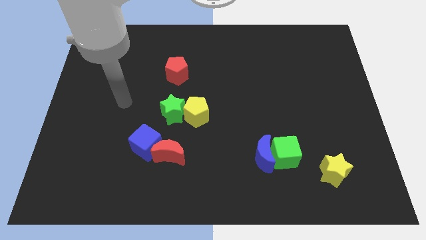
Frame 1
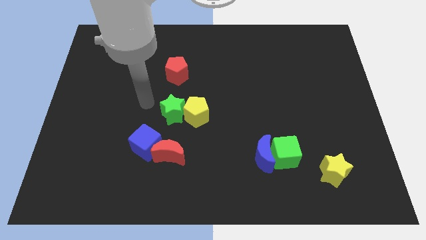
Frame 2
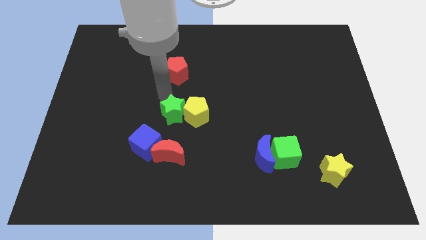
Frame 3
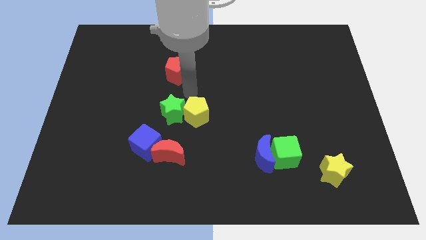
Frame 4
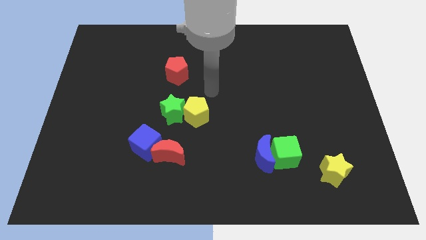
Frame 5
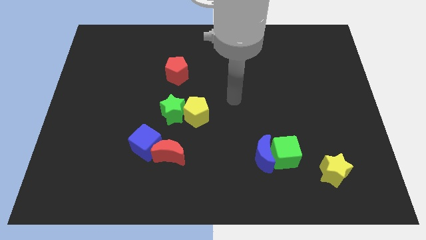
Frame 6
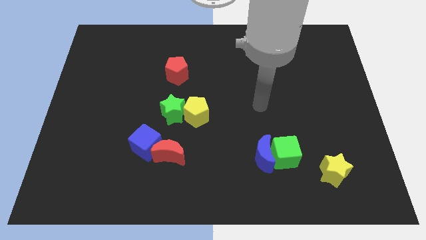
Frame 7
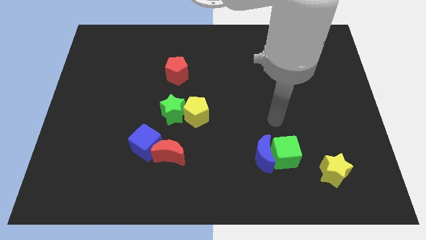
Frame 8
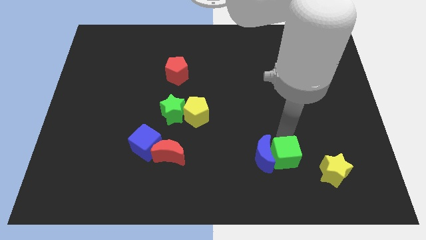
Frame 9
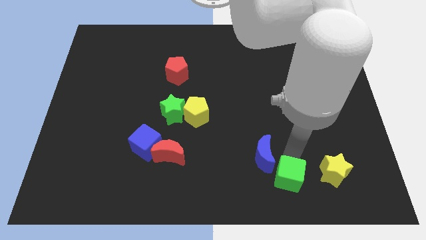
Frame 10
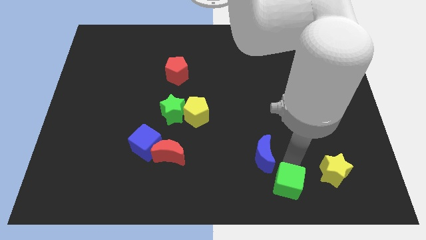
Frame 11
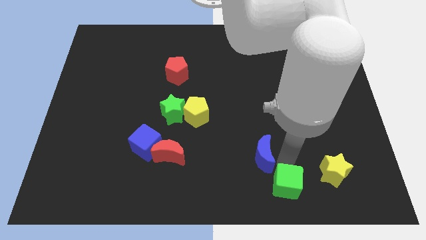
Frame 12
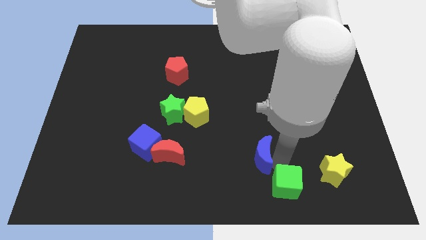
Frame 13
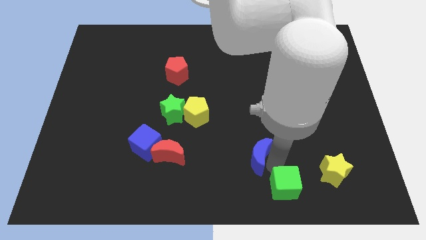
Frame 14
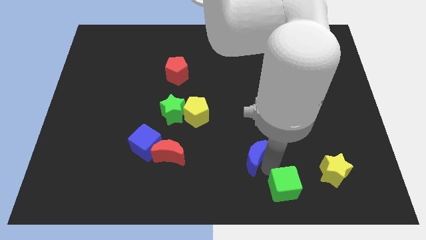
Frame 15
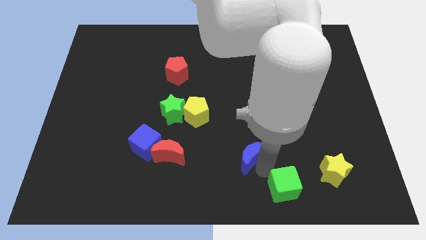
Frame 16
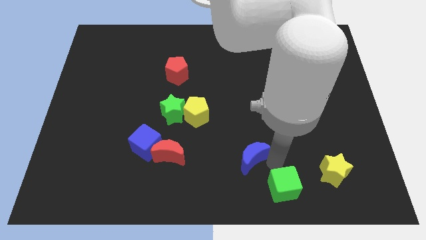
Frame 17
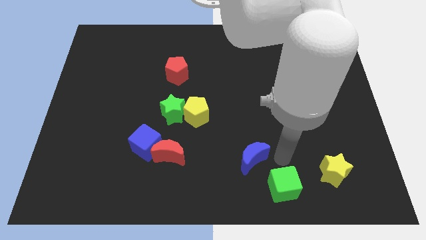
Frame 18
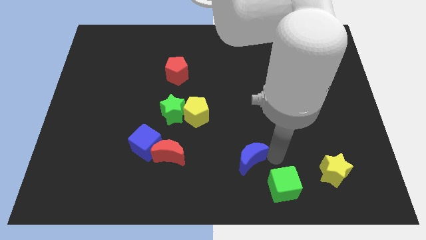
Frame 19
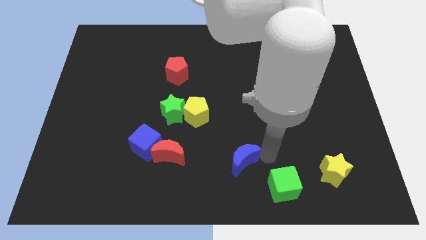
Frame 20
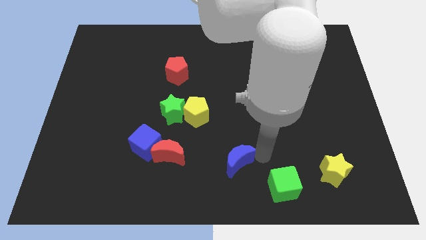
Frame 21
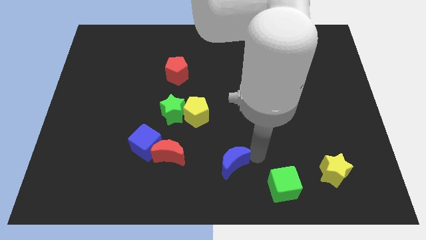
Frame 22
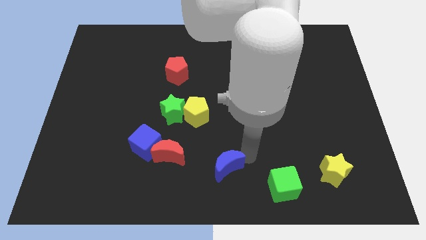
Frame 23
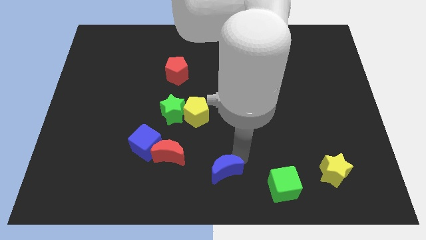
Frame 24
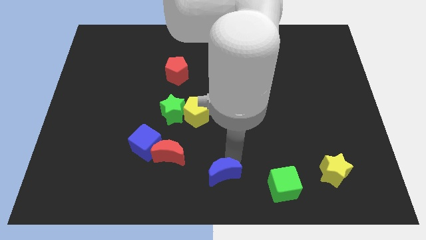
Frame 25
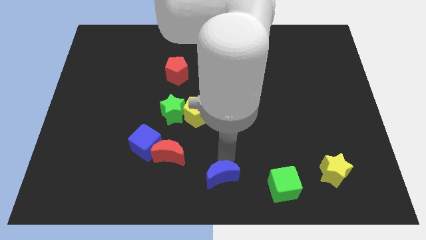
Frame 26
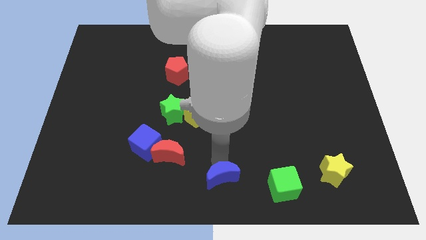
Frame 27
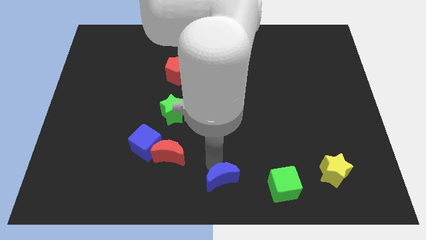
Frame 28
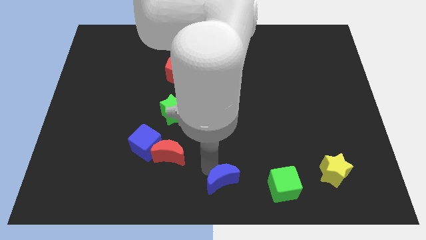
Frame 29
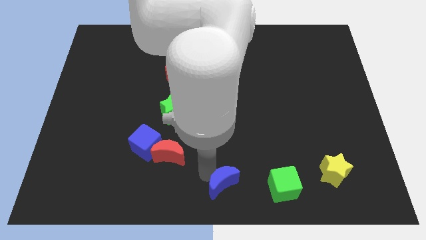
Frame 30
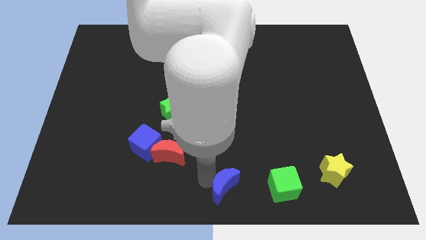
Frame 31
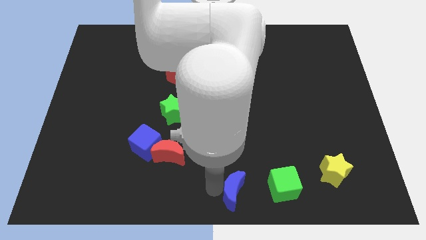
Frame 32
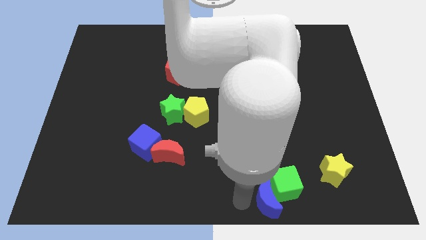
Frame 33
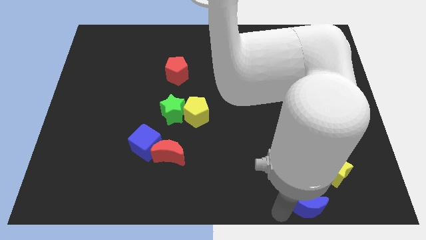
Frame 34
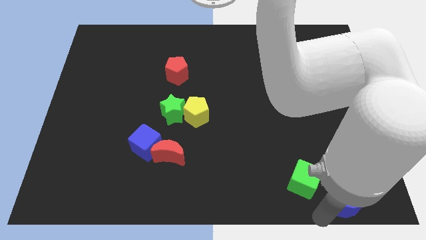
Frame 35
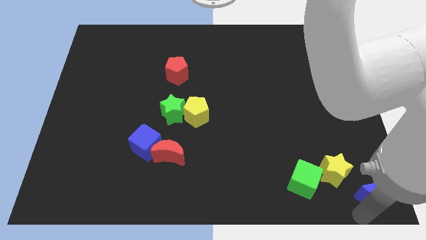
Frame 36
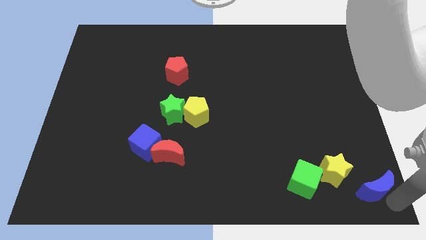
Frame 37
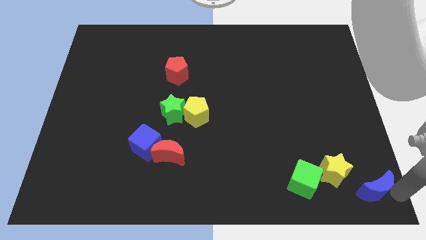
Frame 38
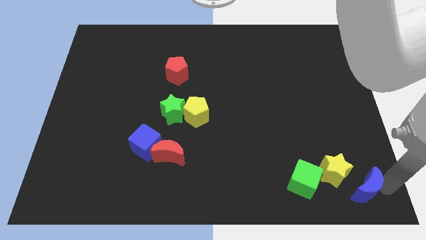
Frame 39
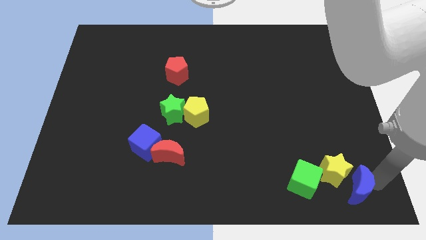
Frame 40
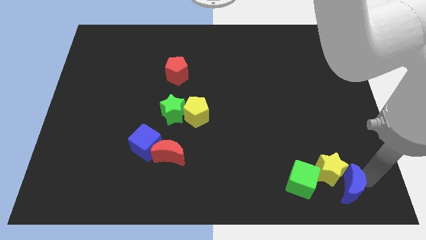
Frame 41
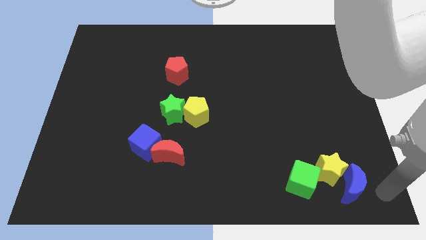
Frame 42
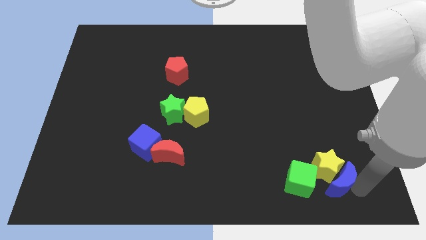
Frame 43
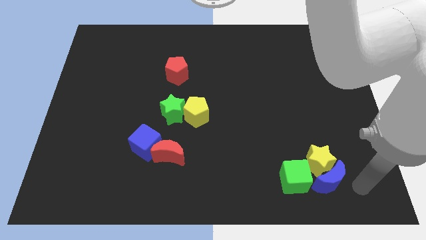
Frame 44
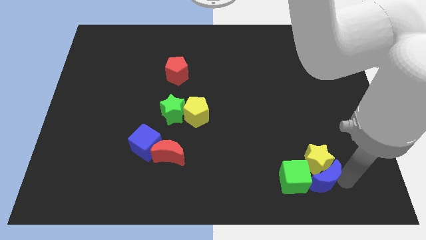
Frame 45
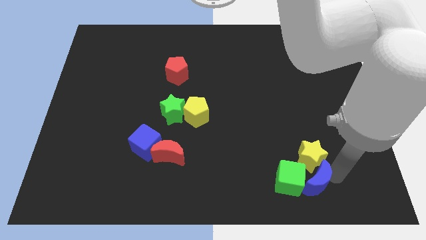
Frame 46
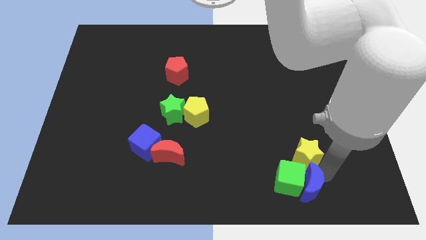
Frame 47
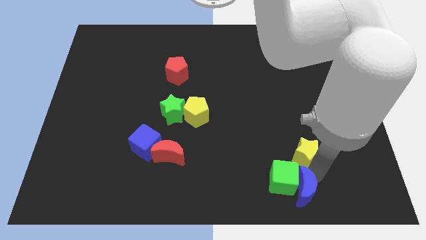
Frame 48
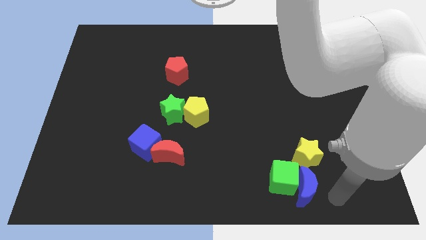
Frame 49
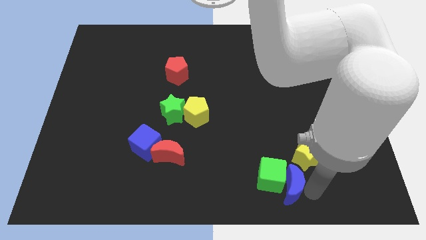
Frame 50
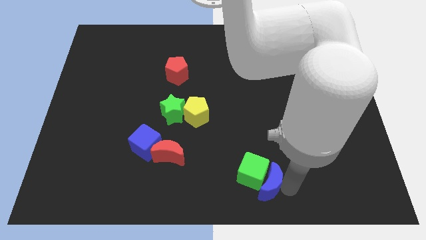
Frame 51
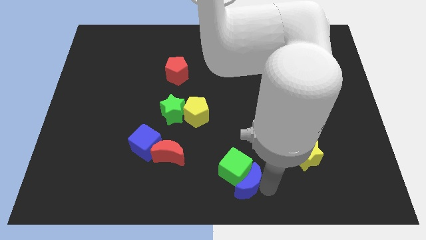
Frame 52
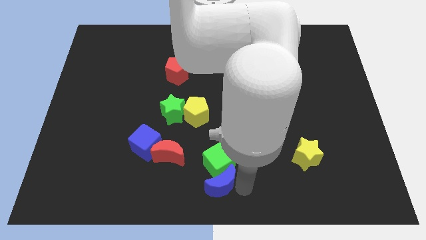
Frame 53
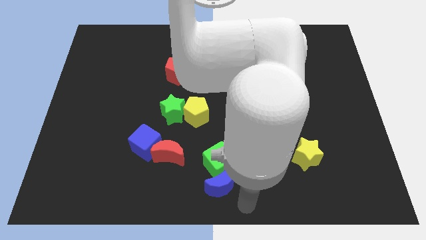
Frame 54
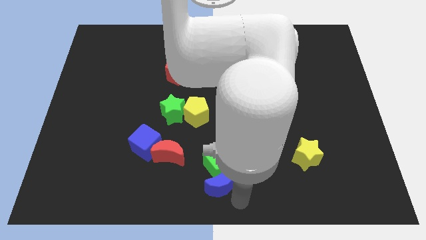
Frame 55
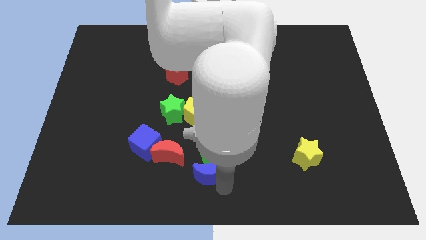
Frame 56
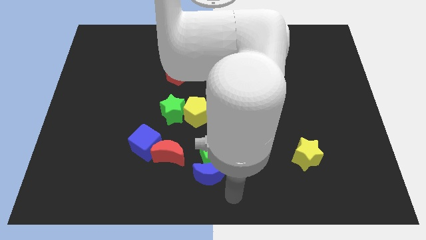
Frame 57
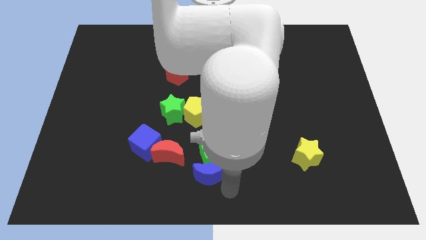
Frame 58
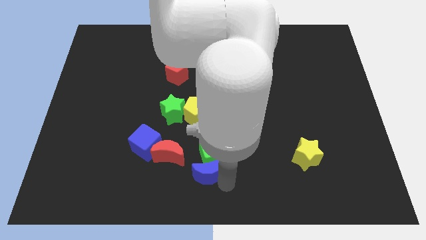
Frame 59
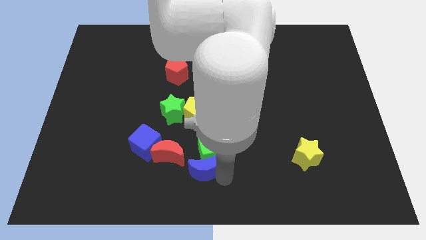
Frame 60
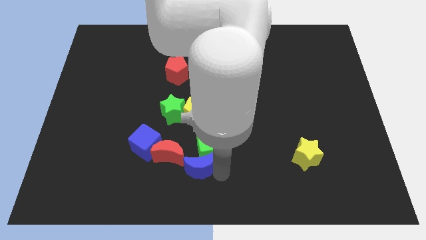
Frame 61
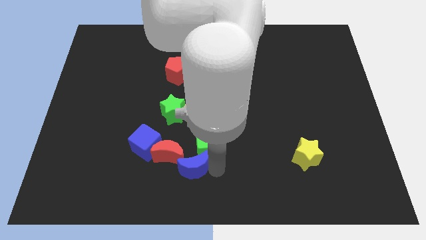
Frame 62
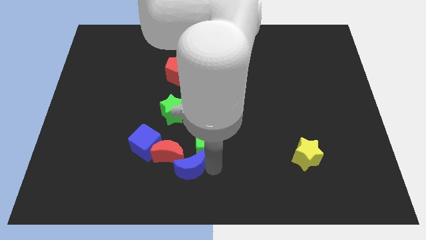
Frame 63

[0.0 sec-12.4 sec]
put the blue moon to the red moon

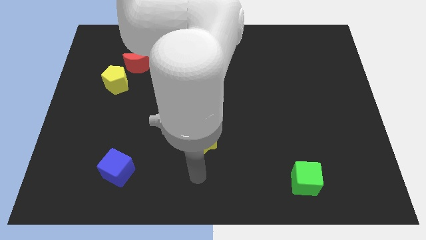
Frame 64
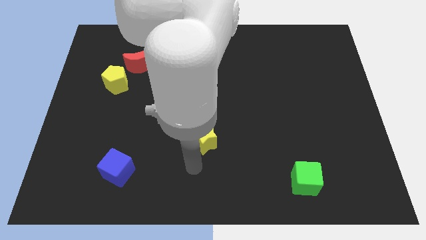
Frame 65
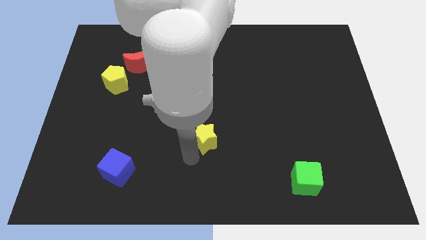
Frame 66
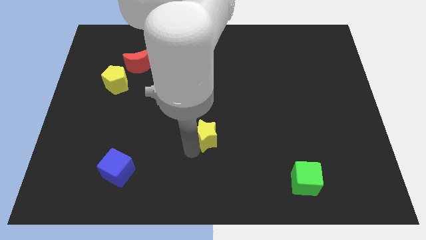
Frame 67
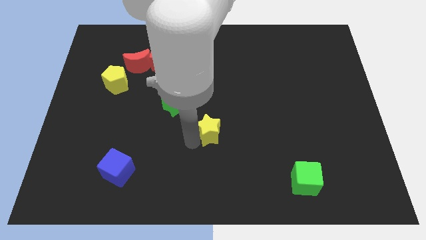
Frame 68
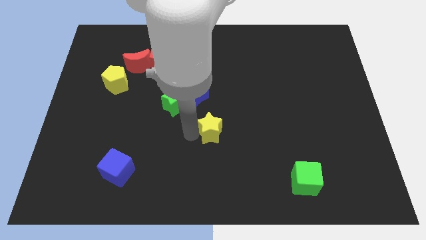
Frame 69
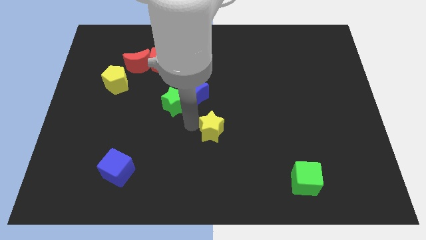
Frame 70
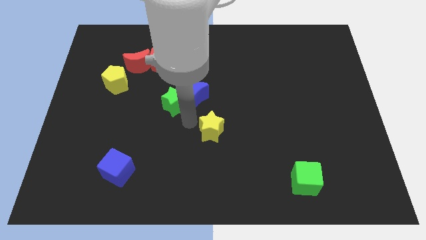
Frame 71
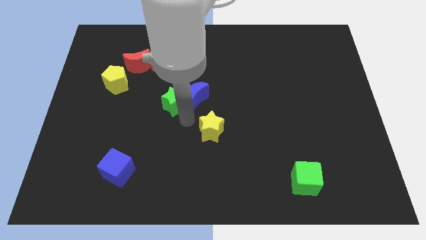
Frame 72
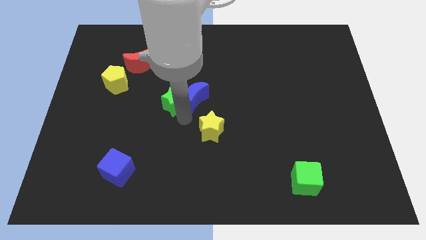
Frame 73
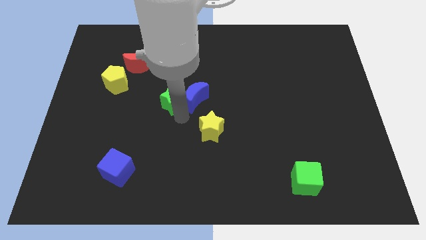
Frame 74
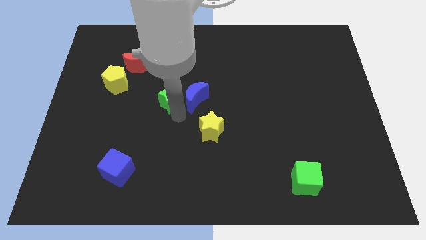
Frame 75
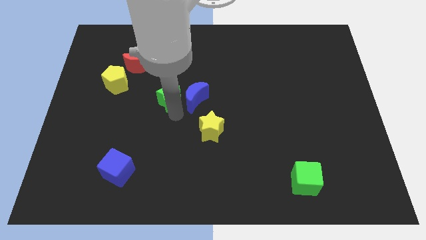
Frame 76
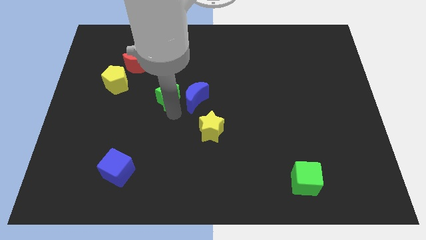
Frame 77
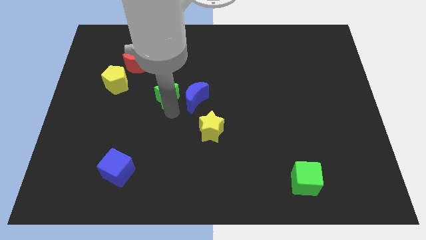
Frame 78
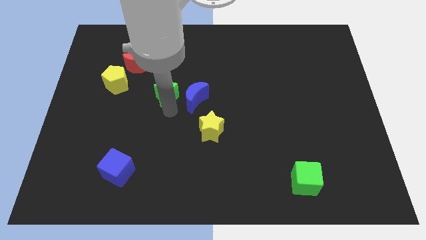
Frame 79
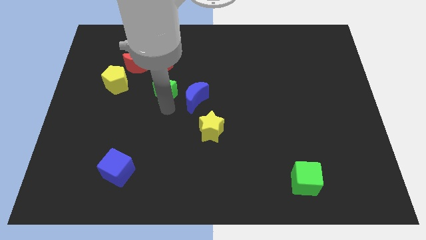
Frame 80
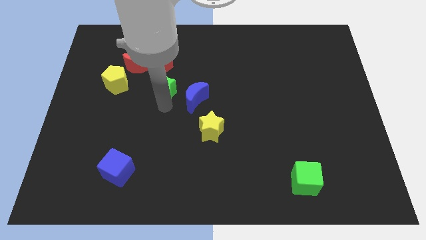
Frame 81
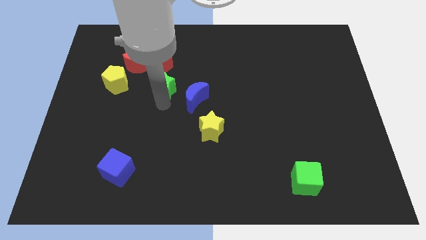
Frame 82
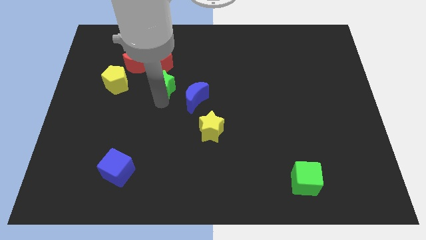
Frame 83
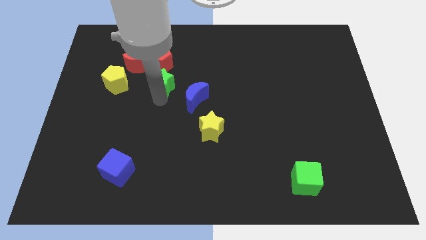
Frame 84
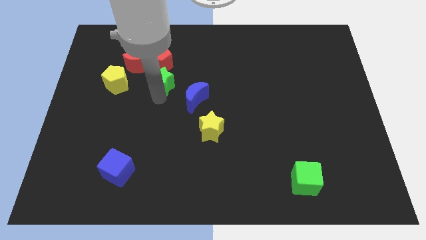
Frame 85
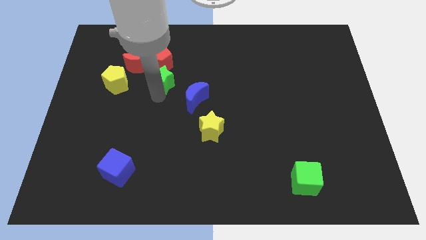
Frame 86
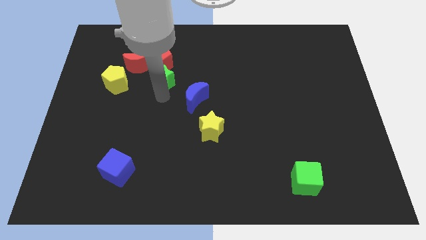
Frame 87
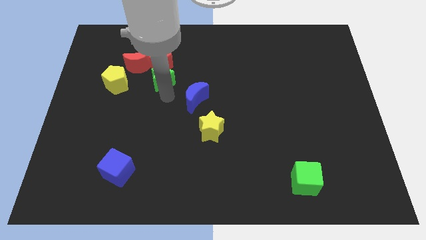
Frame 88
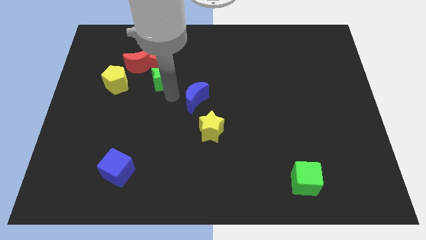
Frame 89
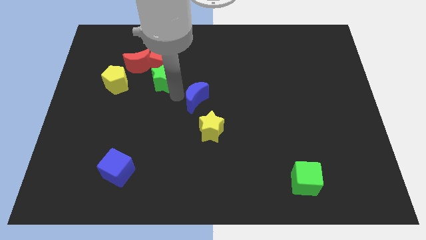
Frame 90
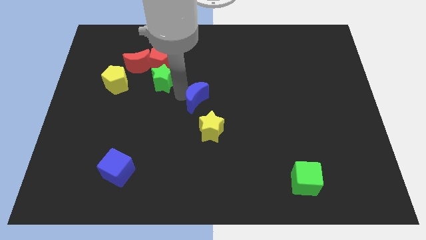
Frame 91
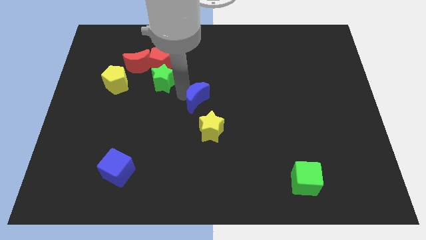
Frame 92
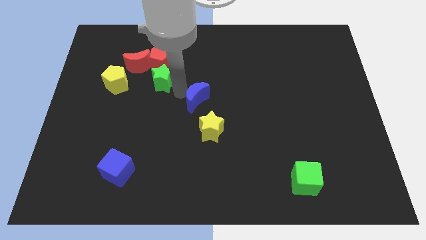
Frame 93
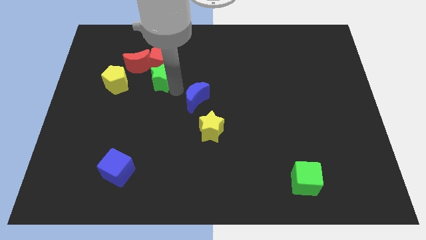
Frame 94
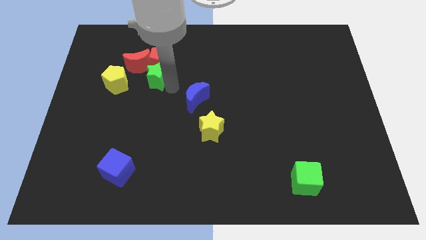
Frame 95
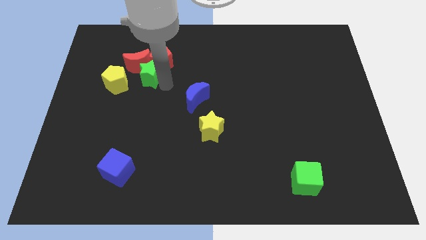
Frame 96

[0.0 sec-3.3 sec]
move the green star next to the red moon
